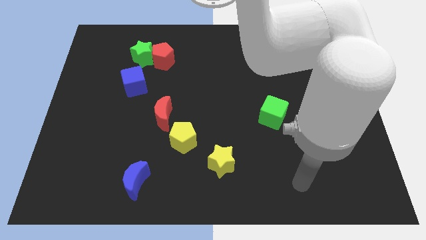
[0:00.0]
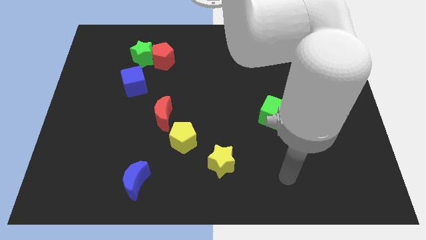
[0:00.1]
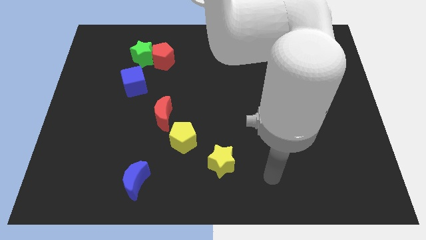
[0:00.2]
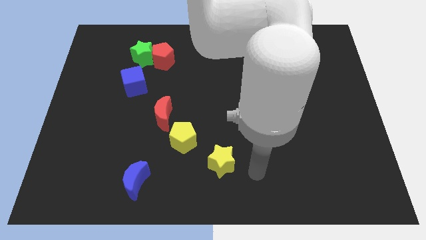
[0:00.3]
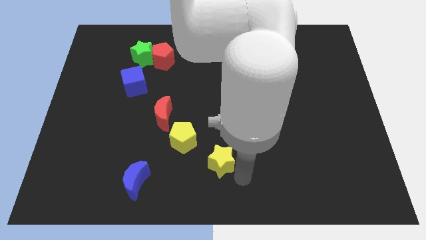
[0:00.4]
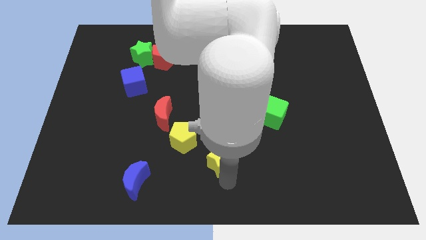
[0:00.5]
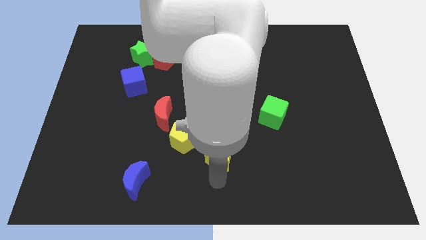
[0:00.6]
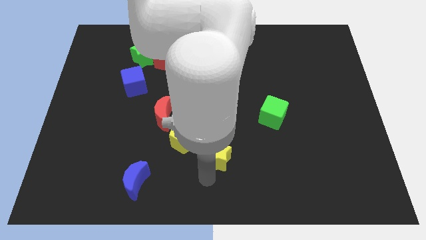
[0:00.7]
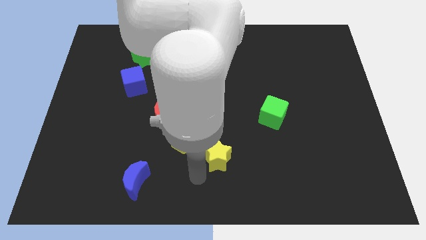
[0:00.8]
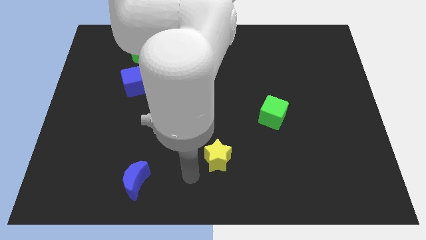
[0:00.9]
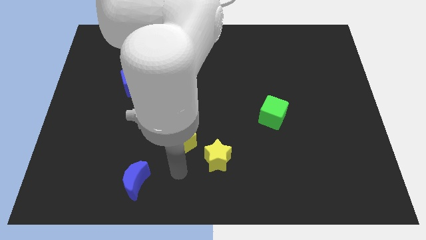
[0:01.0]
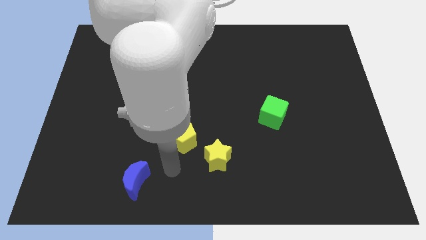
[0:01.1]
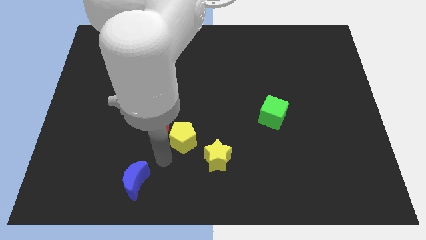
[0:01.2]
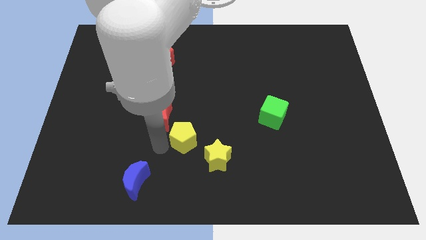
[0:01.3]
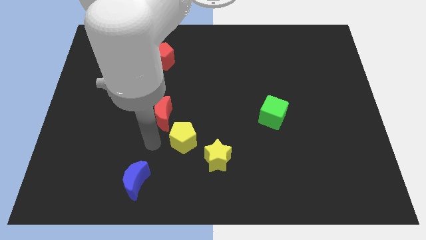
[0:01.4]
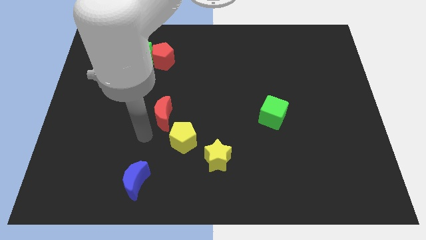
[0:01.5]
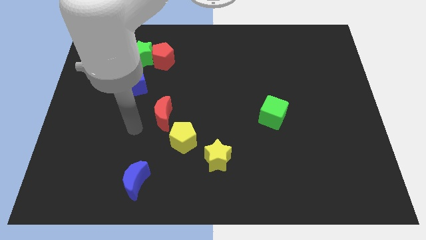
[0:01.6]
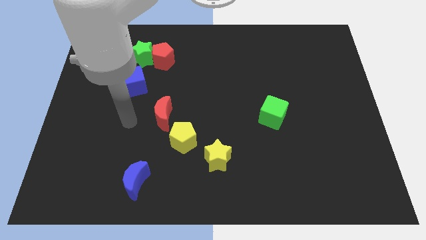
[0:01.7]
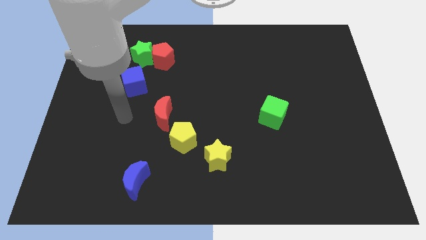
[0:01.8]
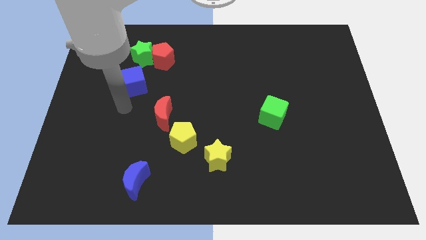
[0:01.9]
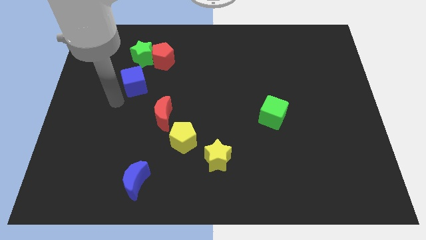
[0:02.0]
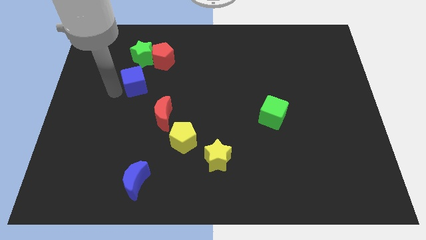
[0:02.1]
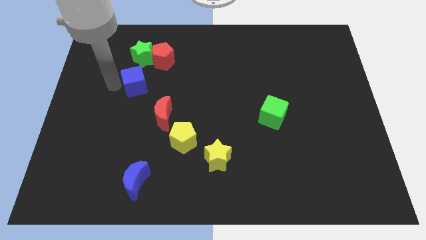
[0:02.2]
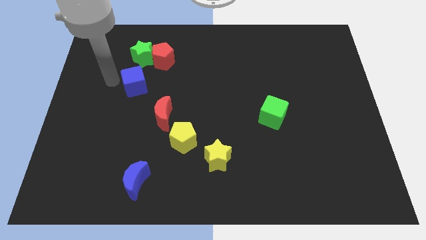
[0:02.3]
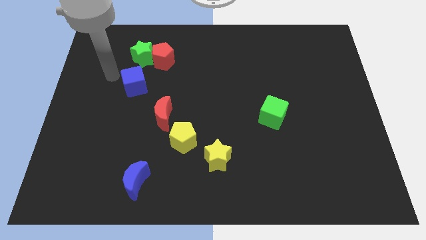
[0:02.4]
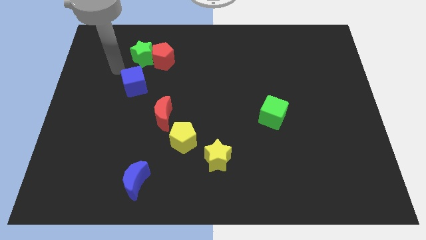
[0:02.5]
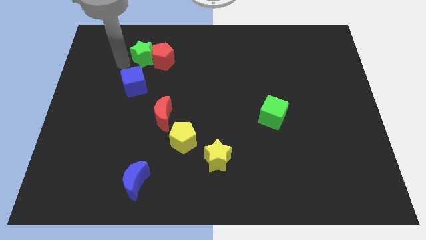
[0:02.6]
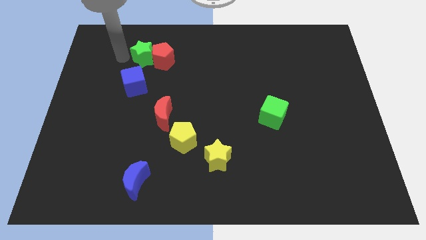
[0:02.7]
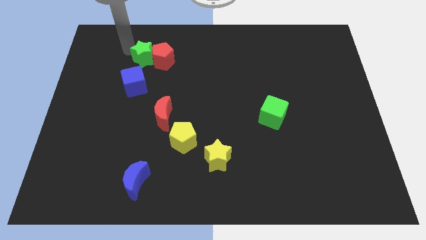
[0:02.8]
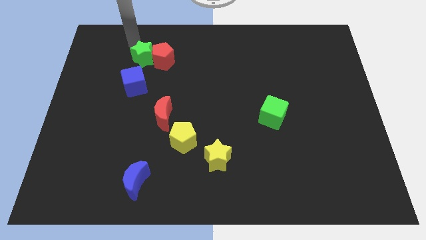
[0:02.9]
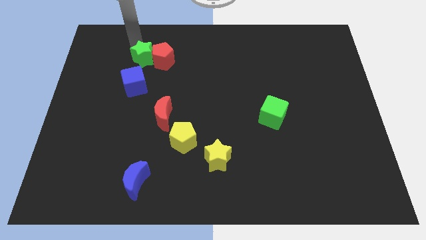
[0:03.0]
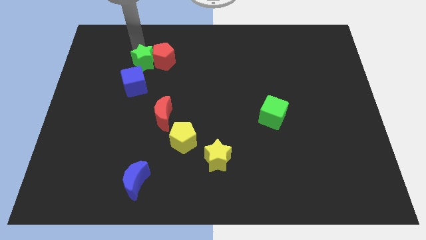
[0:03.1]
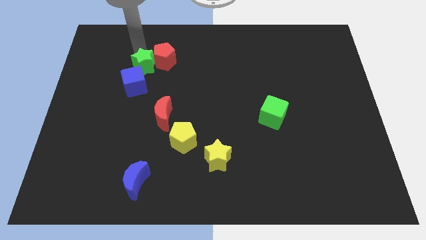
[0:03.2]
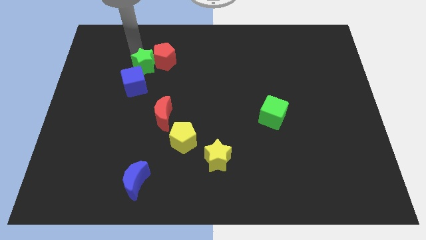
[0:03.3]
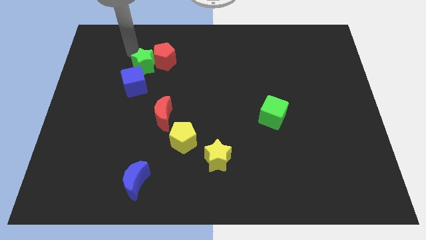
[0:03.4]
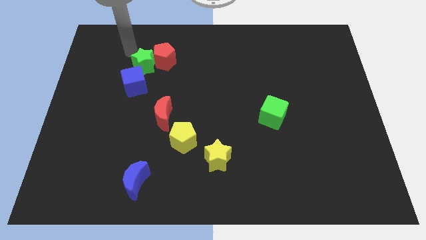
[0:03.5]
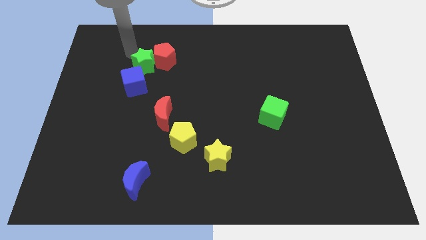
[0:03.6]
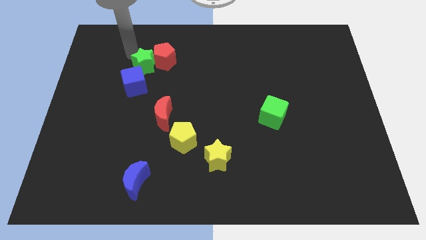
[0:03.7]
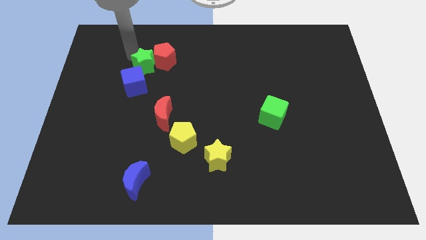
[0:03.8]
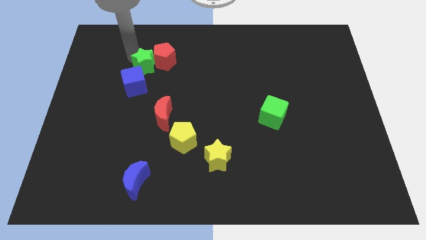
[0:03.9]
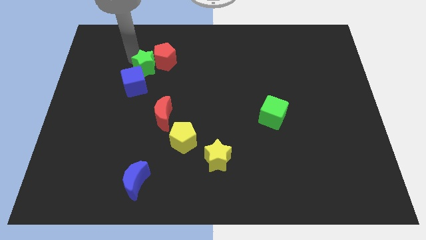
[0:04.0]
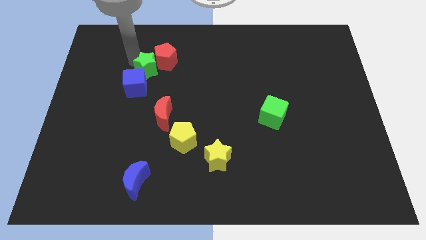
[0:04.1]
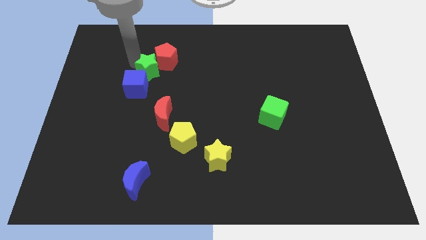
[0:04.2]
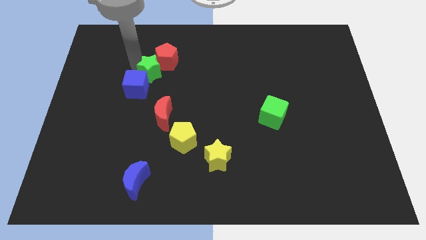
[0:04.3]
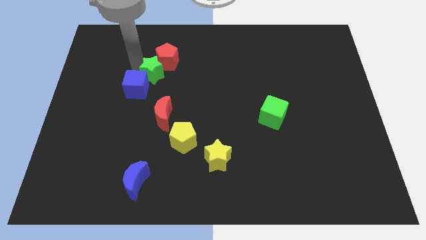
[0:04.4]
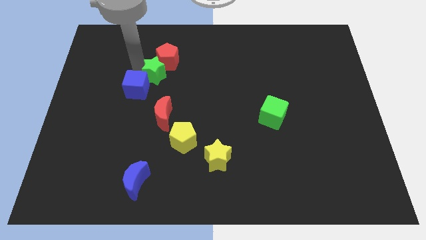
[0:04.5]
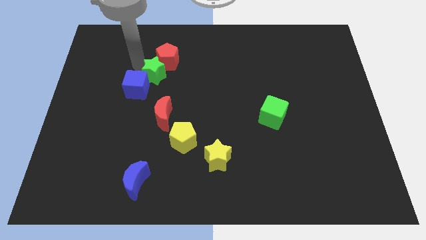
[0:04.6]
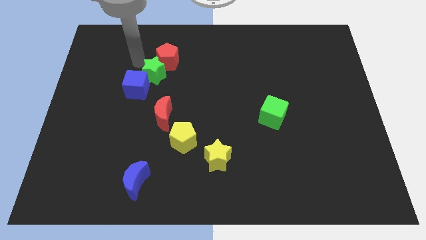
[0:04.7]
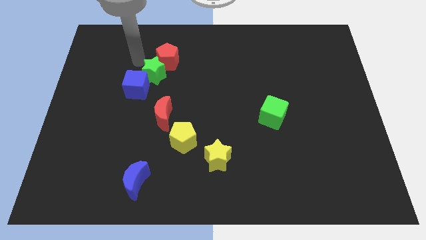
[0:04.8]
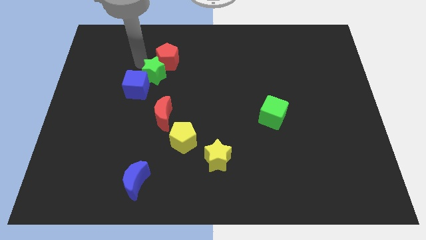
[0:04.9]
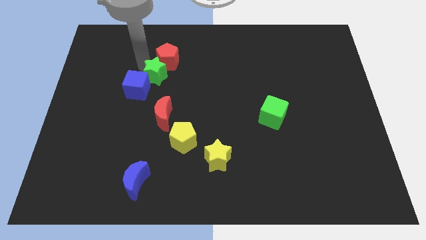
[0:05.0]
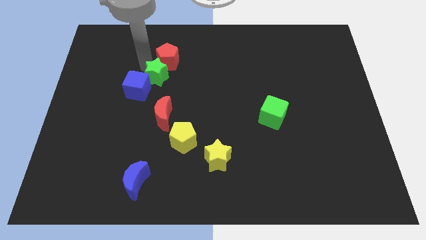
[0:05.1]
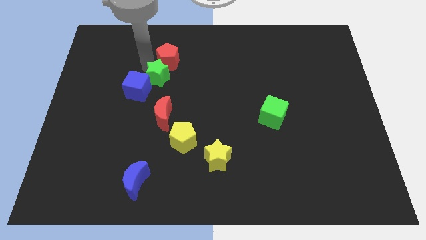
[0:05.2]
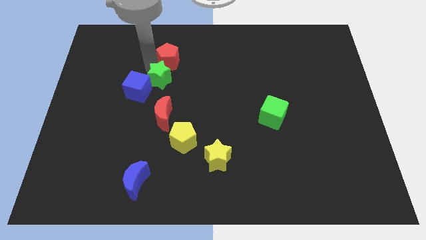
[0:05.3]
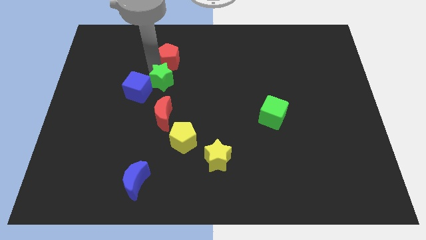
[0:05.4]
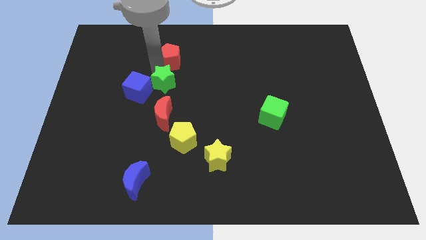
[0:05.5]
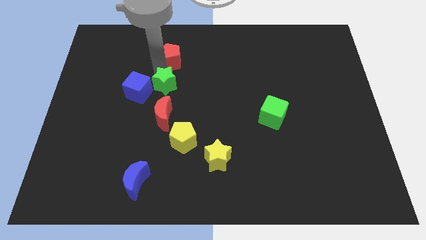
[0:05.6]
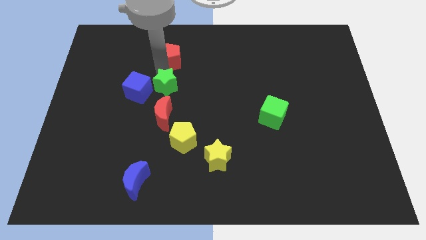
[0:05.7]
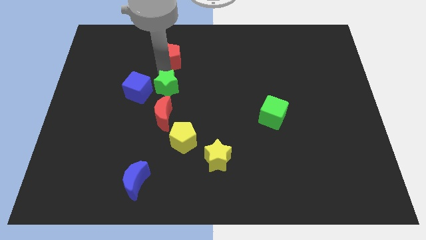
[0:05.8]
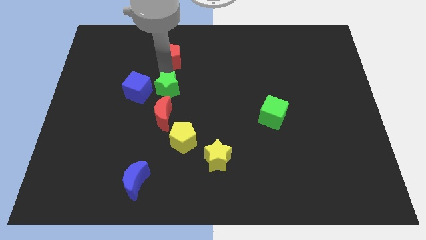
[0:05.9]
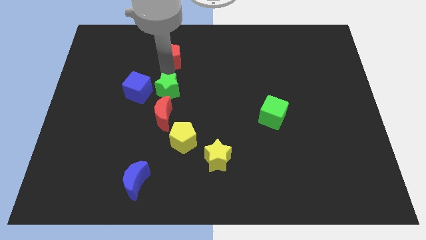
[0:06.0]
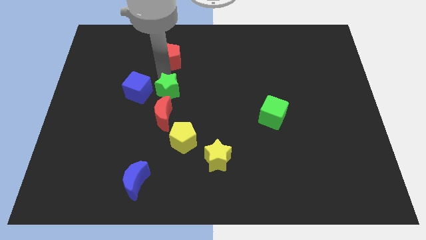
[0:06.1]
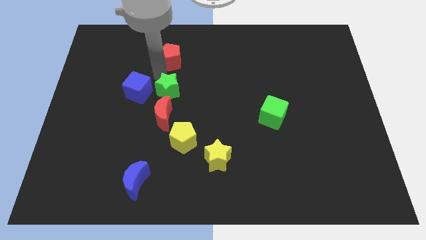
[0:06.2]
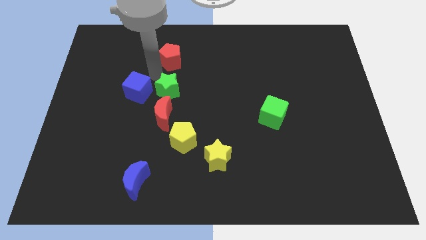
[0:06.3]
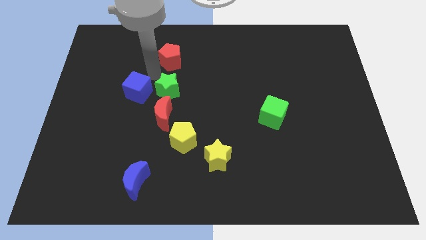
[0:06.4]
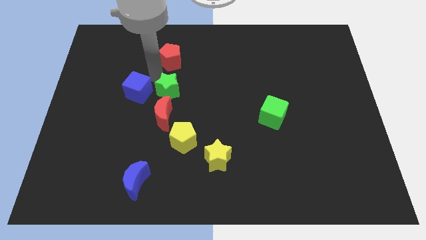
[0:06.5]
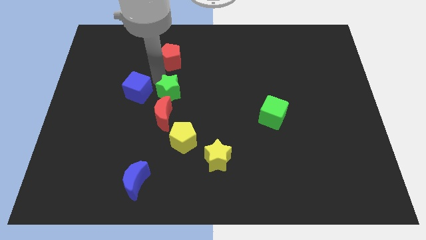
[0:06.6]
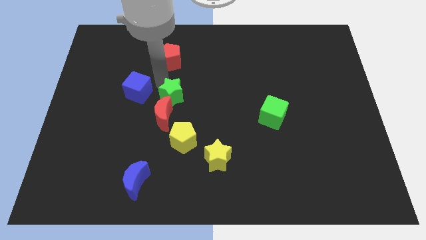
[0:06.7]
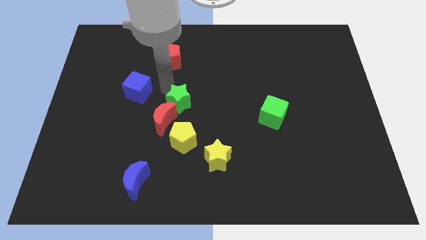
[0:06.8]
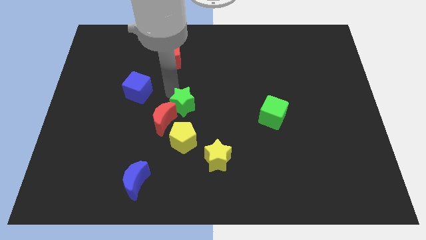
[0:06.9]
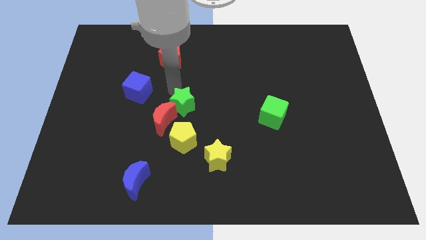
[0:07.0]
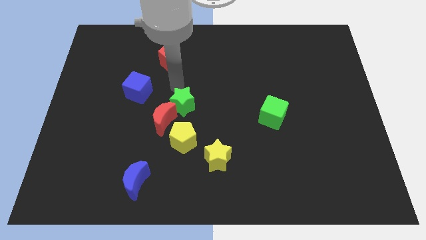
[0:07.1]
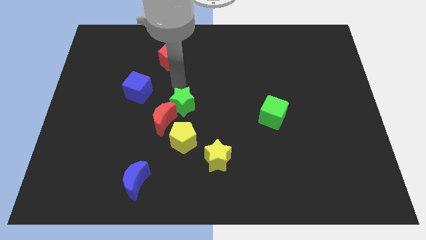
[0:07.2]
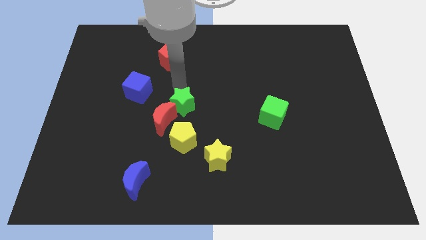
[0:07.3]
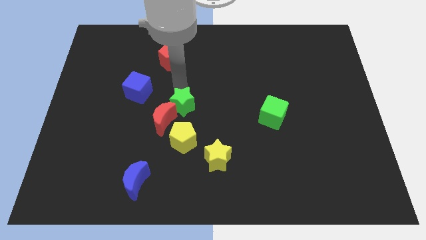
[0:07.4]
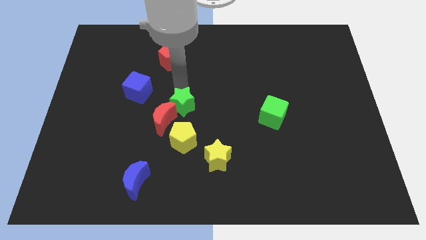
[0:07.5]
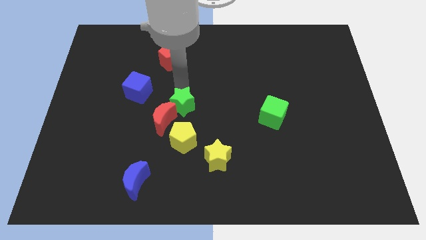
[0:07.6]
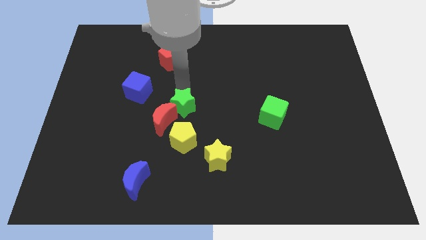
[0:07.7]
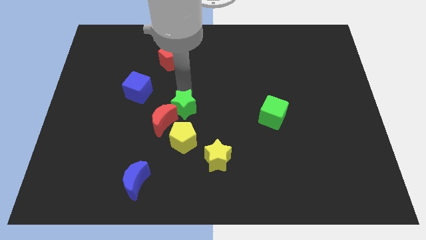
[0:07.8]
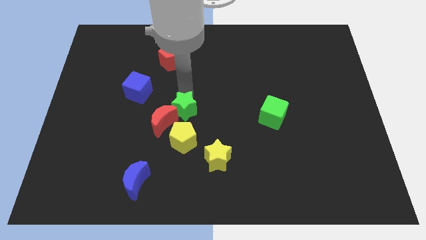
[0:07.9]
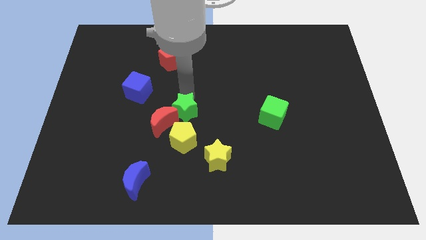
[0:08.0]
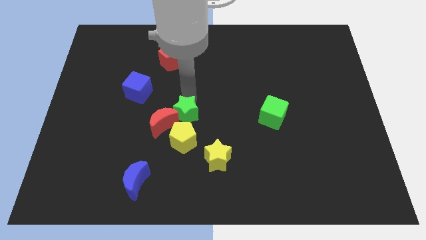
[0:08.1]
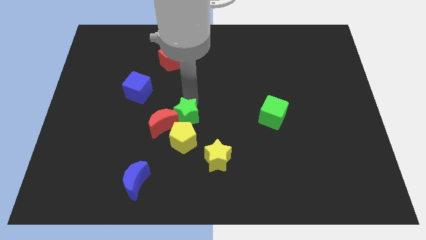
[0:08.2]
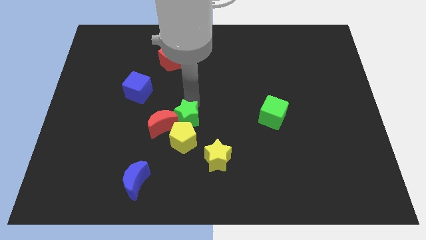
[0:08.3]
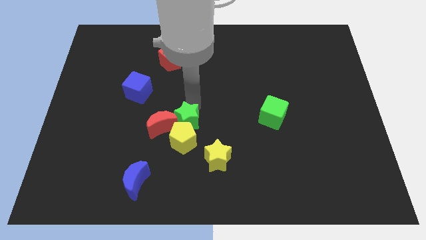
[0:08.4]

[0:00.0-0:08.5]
push the green star towards the yellow pentagon
